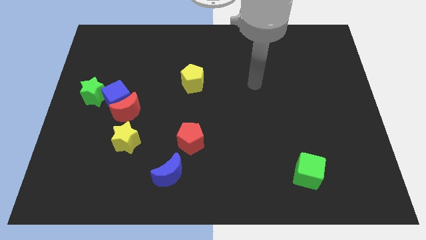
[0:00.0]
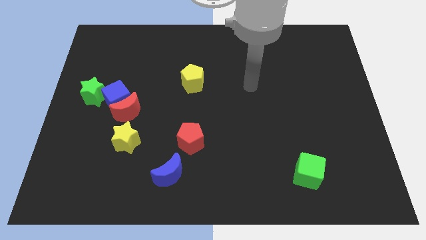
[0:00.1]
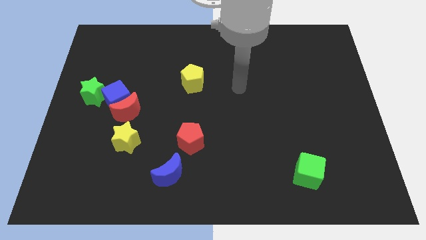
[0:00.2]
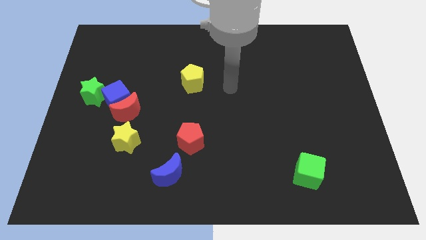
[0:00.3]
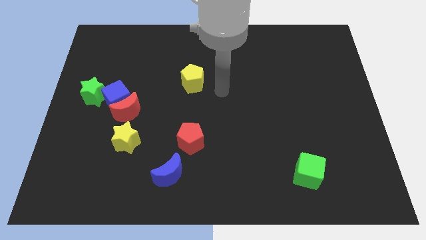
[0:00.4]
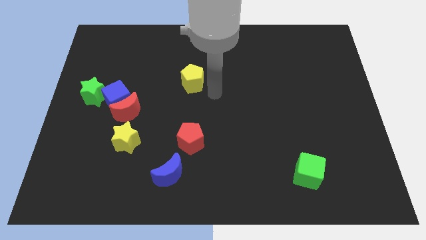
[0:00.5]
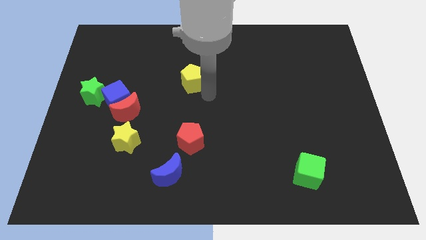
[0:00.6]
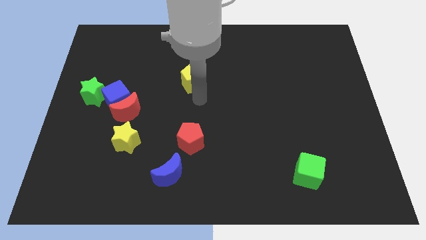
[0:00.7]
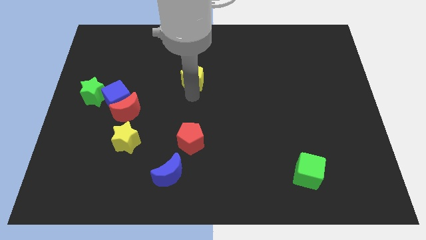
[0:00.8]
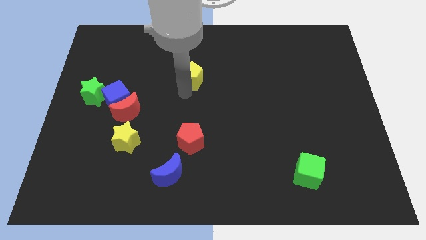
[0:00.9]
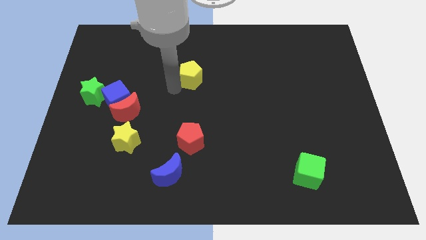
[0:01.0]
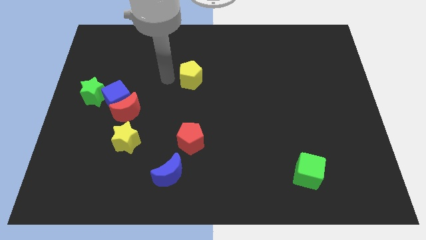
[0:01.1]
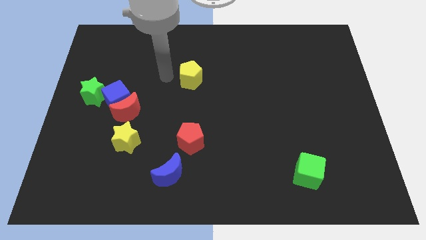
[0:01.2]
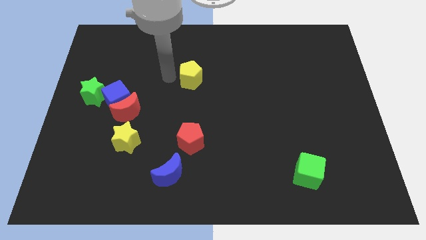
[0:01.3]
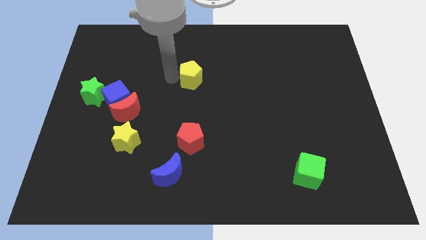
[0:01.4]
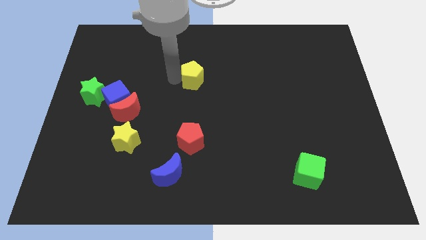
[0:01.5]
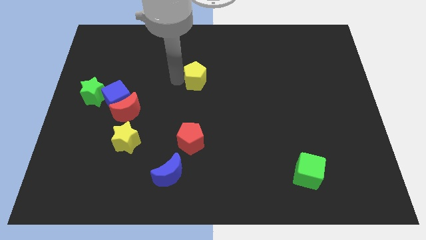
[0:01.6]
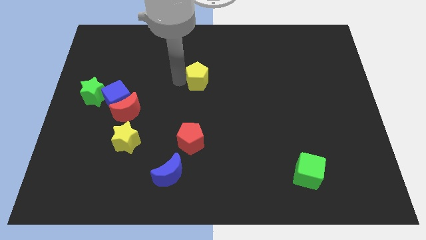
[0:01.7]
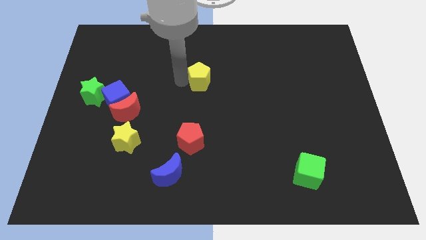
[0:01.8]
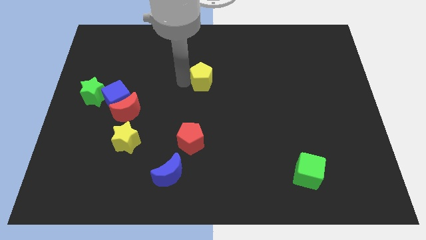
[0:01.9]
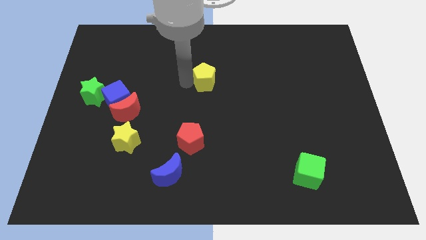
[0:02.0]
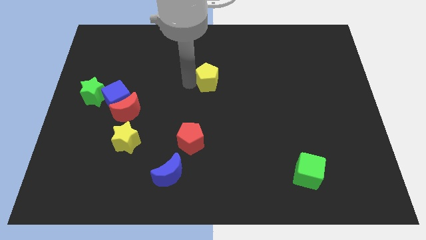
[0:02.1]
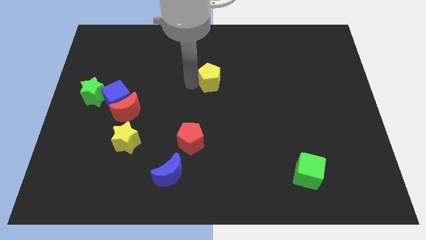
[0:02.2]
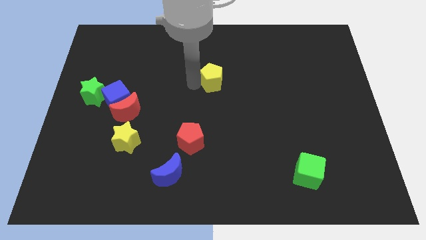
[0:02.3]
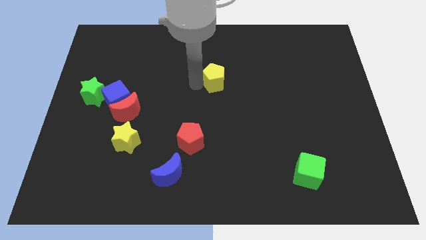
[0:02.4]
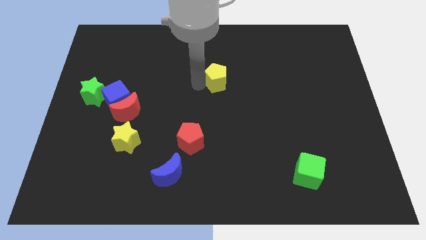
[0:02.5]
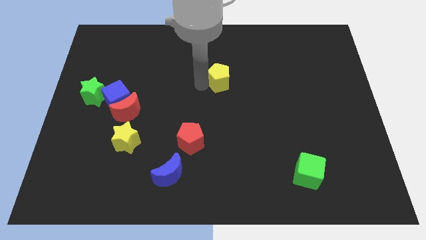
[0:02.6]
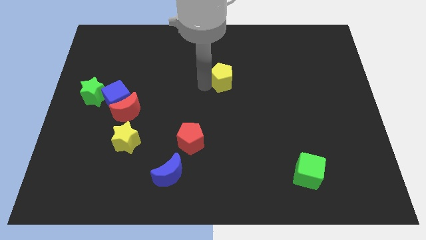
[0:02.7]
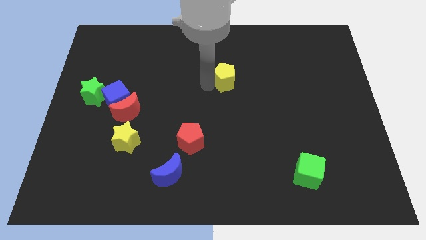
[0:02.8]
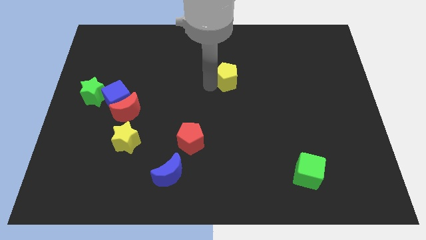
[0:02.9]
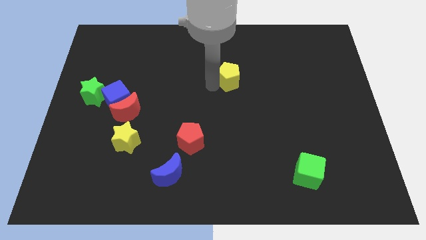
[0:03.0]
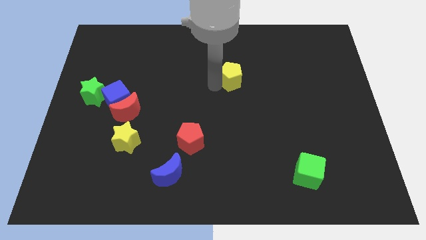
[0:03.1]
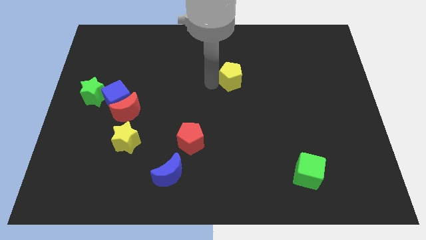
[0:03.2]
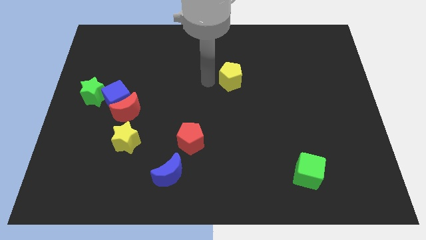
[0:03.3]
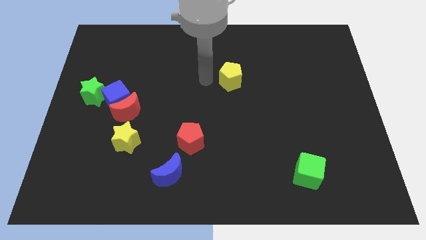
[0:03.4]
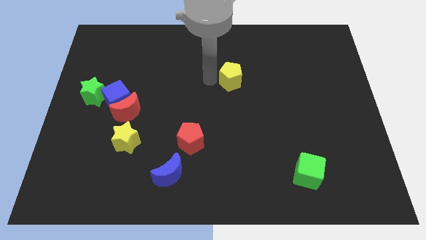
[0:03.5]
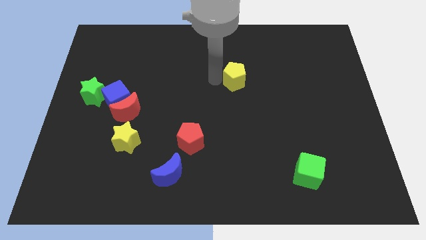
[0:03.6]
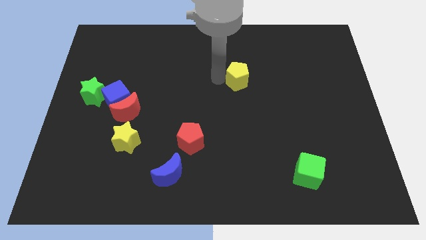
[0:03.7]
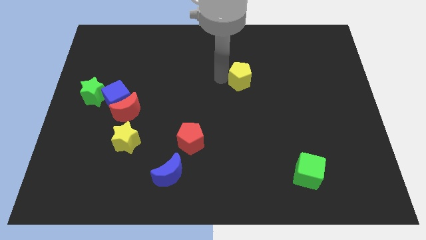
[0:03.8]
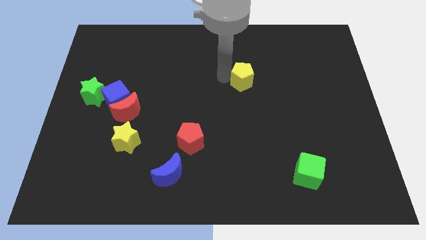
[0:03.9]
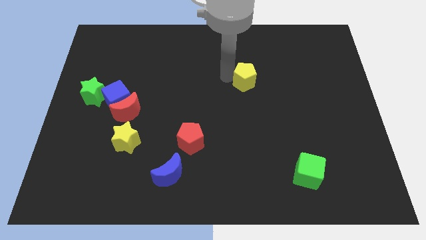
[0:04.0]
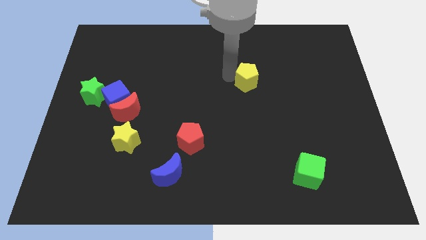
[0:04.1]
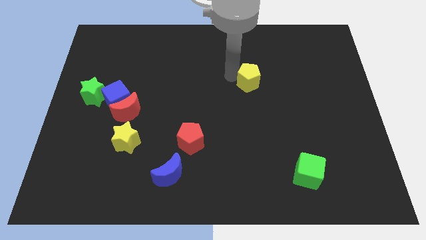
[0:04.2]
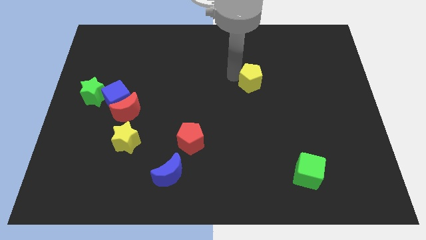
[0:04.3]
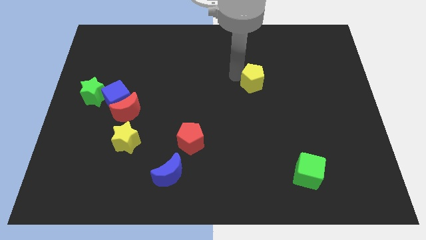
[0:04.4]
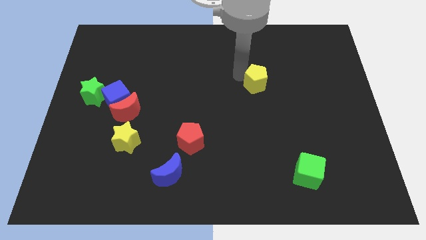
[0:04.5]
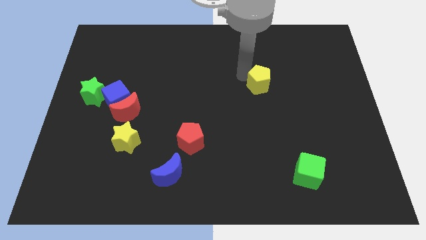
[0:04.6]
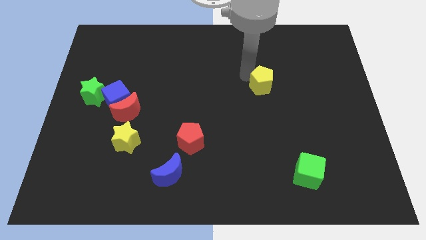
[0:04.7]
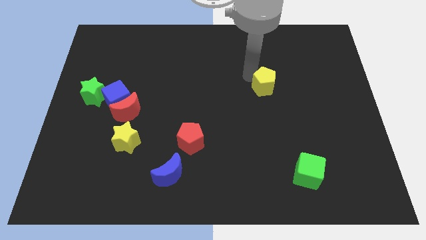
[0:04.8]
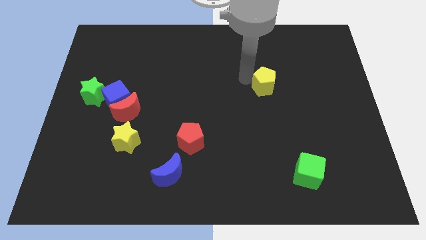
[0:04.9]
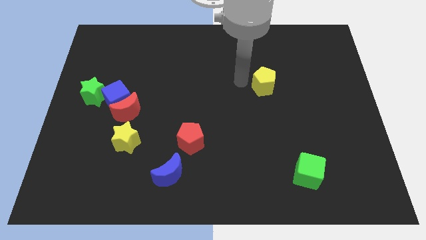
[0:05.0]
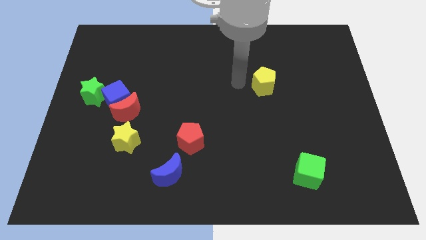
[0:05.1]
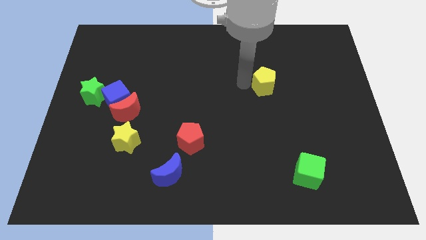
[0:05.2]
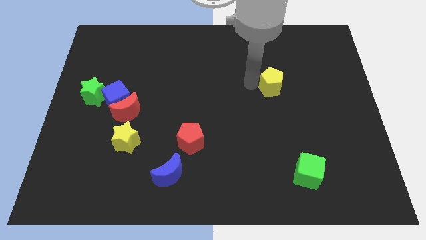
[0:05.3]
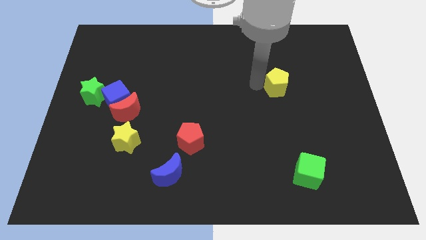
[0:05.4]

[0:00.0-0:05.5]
slide the yellow pentagon to the right

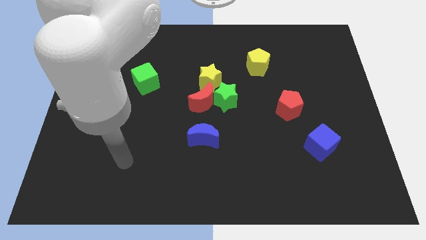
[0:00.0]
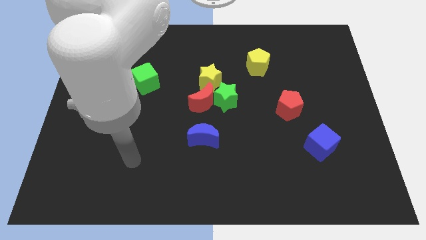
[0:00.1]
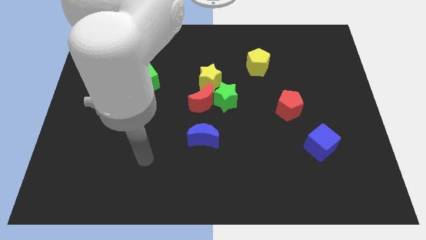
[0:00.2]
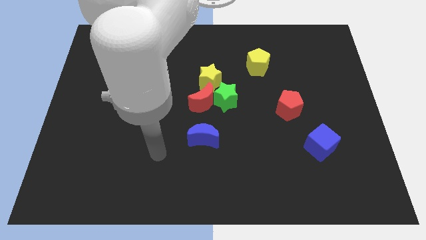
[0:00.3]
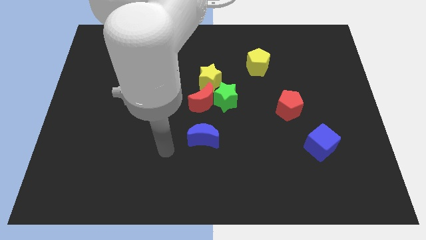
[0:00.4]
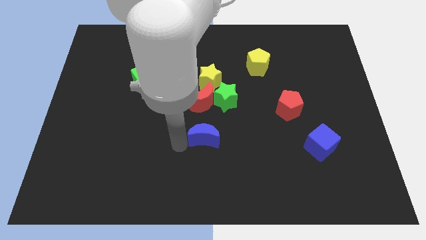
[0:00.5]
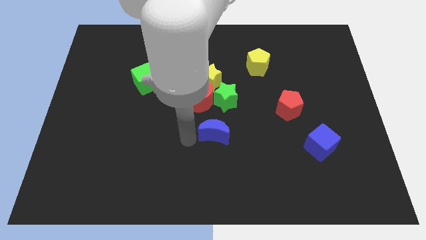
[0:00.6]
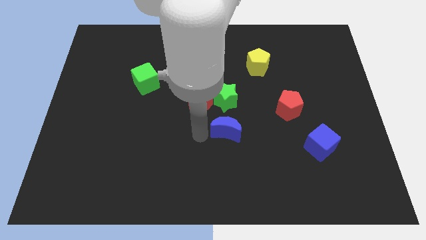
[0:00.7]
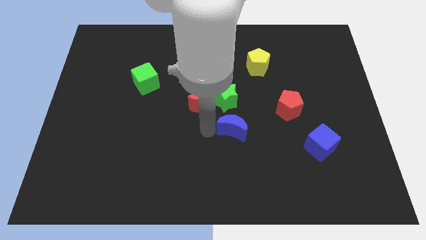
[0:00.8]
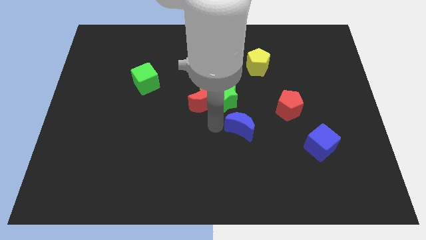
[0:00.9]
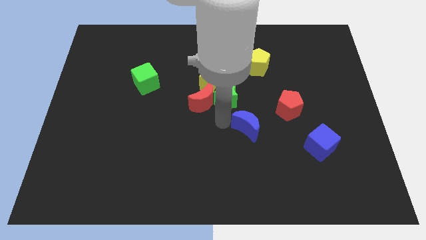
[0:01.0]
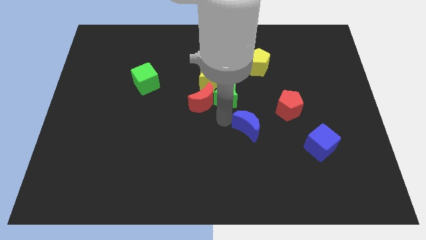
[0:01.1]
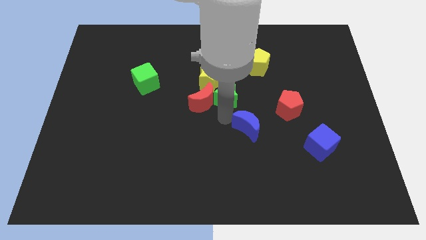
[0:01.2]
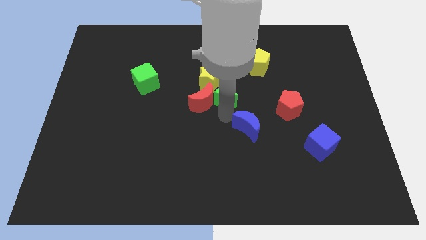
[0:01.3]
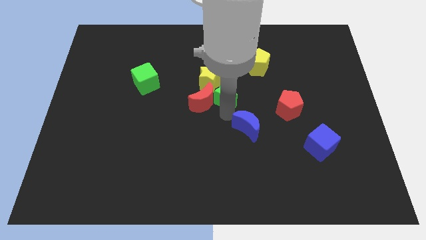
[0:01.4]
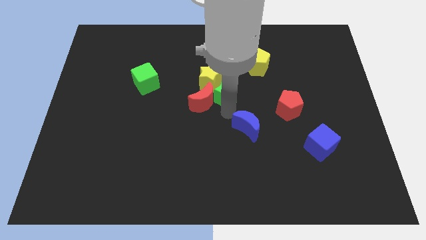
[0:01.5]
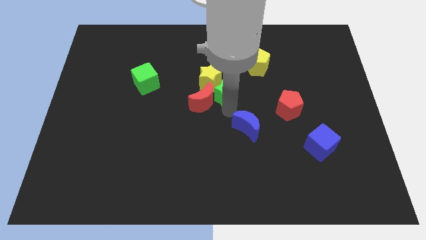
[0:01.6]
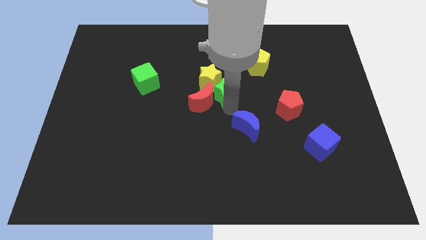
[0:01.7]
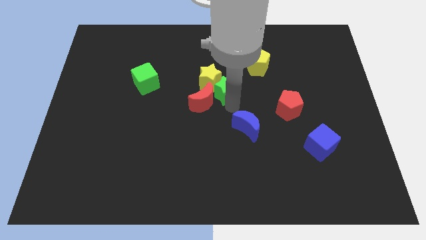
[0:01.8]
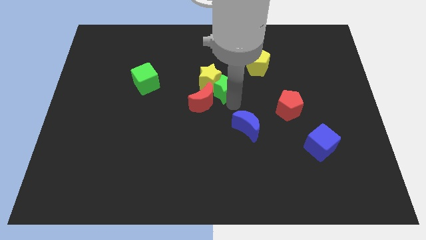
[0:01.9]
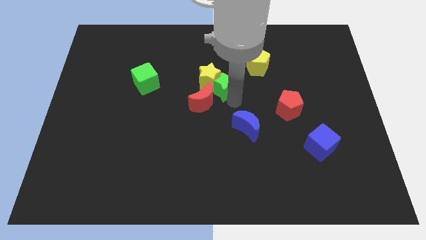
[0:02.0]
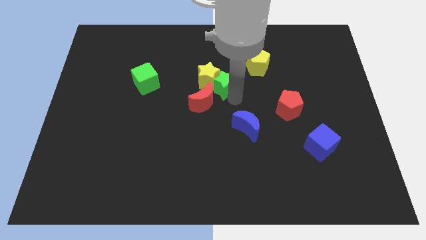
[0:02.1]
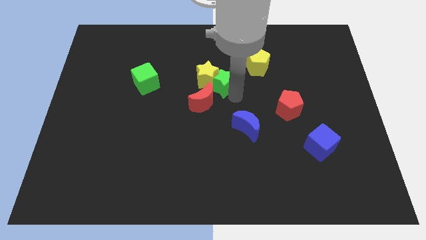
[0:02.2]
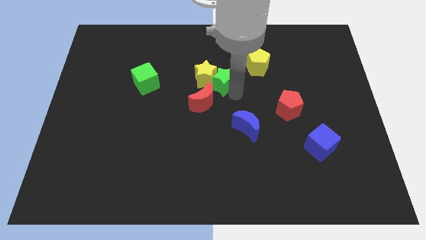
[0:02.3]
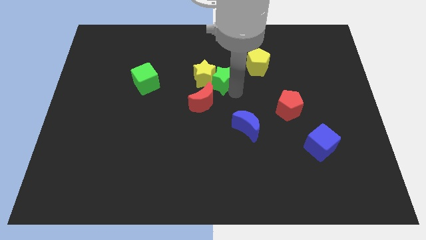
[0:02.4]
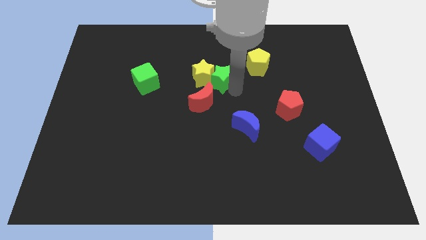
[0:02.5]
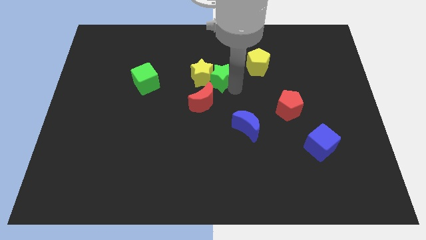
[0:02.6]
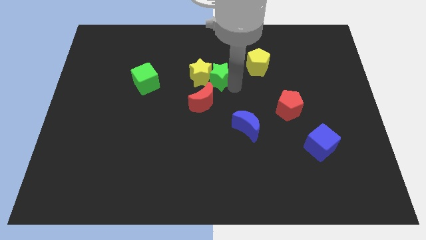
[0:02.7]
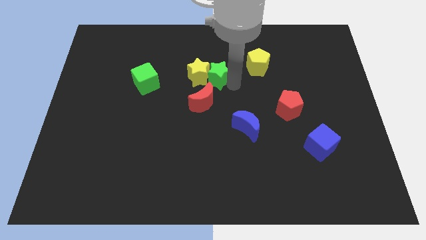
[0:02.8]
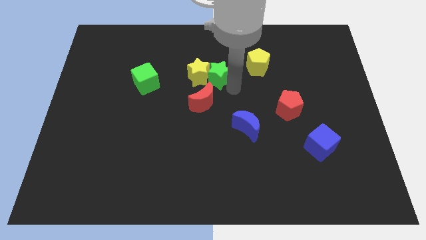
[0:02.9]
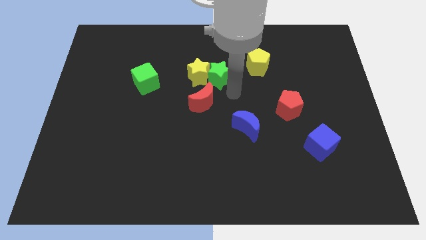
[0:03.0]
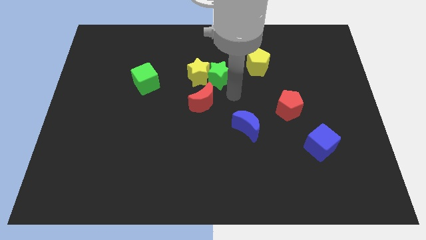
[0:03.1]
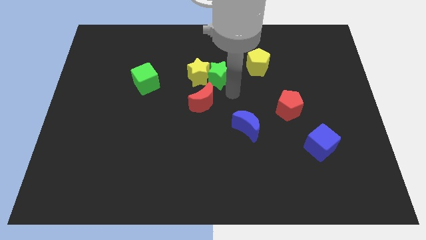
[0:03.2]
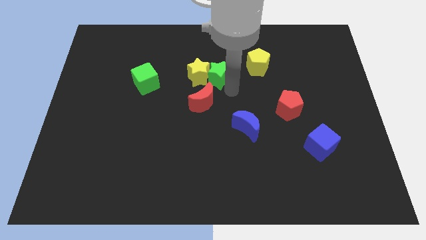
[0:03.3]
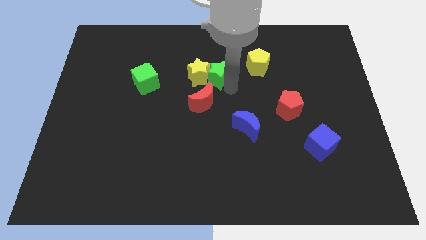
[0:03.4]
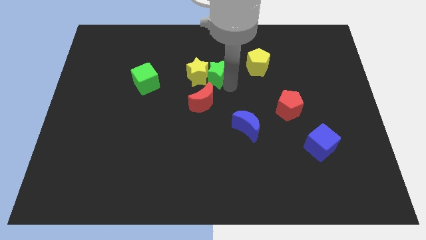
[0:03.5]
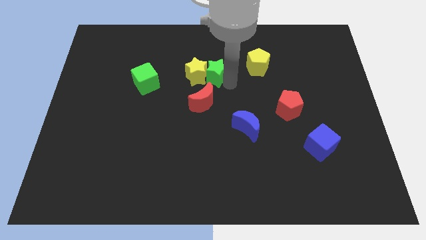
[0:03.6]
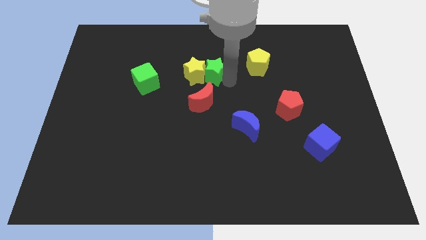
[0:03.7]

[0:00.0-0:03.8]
move the green star slightly up and then to the left
